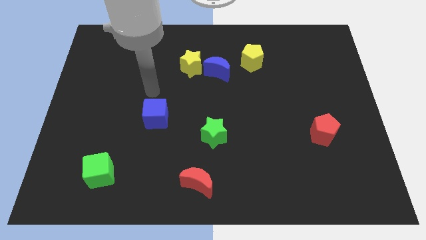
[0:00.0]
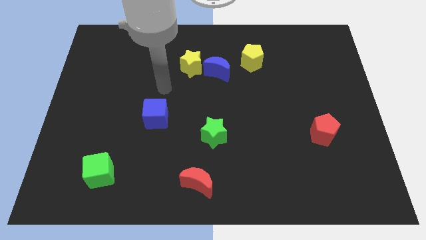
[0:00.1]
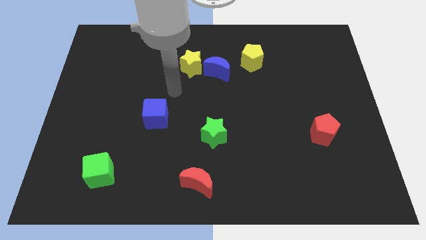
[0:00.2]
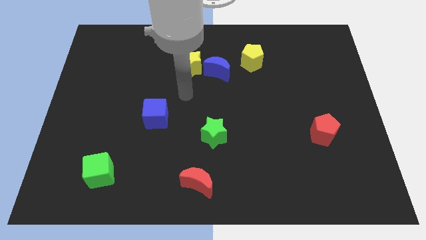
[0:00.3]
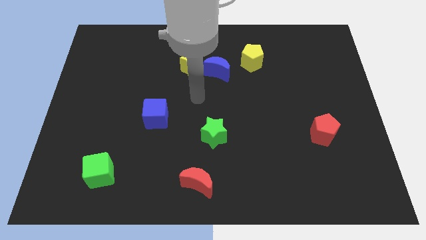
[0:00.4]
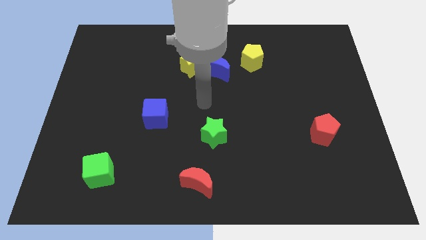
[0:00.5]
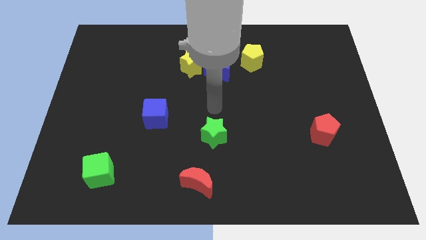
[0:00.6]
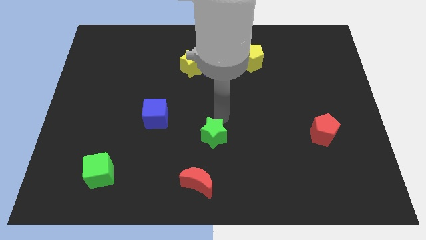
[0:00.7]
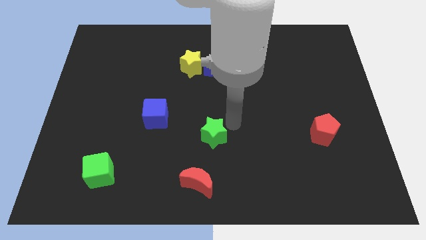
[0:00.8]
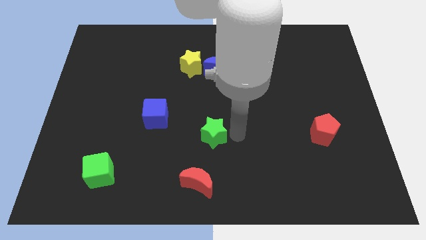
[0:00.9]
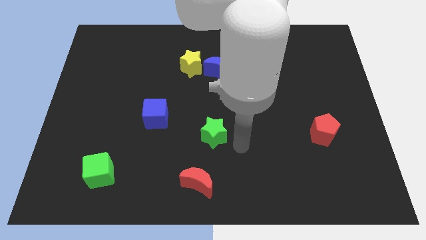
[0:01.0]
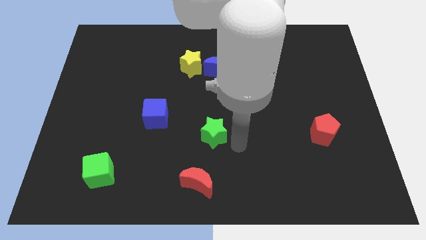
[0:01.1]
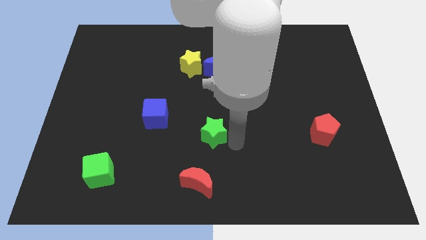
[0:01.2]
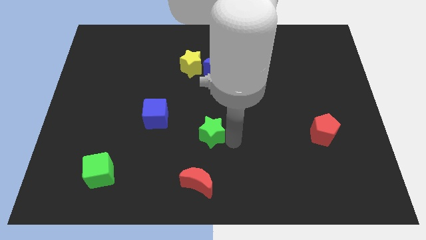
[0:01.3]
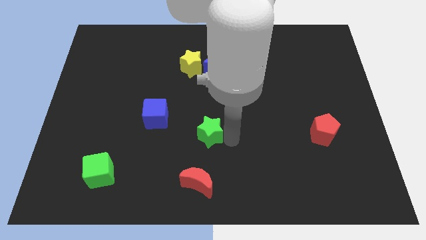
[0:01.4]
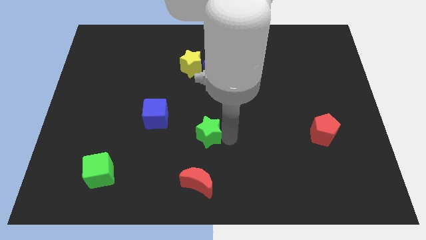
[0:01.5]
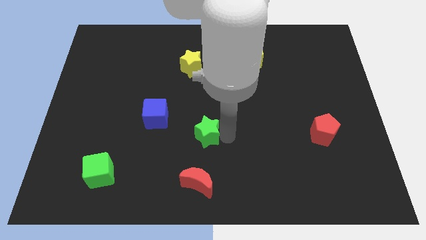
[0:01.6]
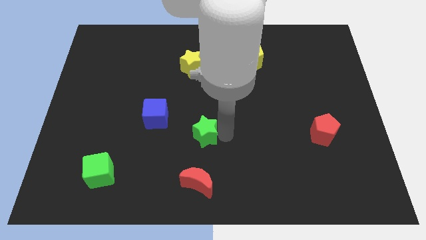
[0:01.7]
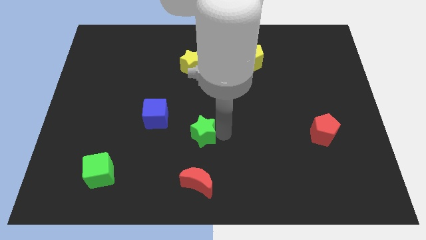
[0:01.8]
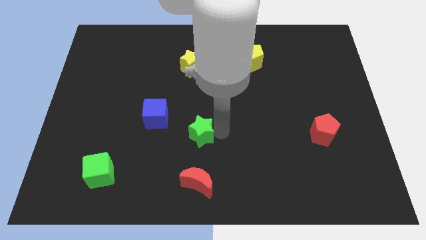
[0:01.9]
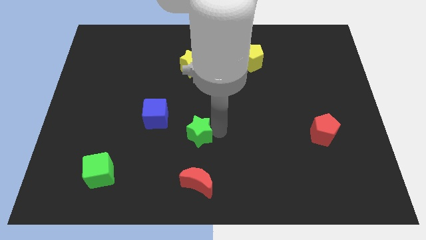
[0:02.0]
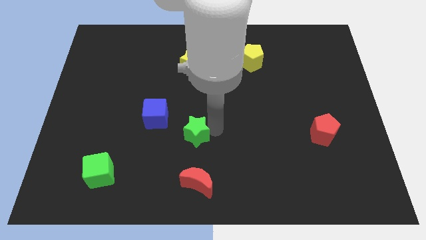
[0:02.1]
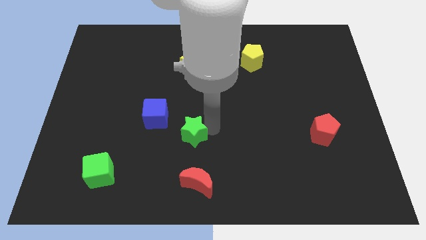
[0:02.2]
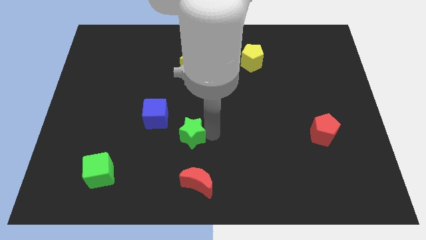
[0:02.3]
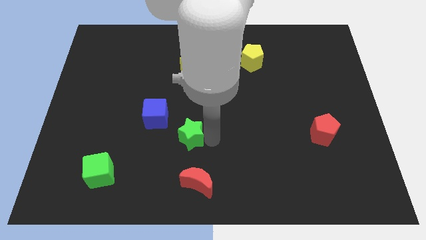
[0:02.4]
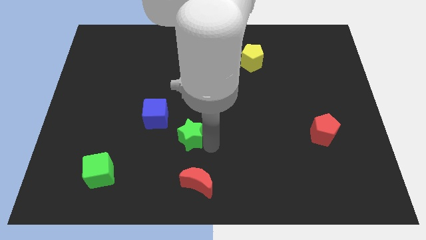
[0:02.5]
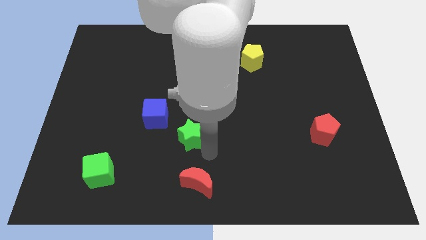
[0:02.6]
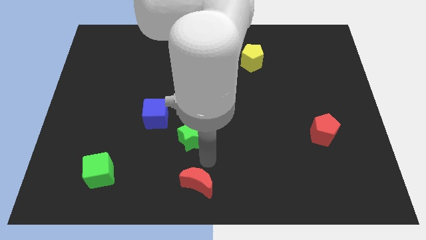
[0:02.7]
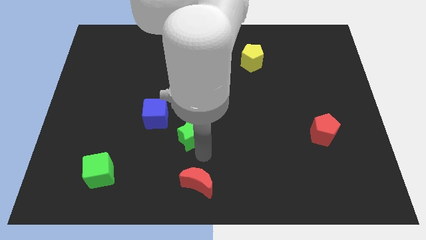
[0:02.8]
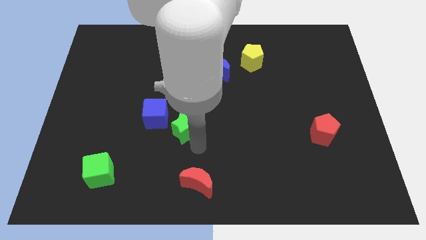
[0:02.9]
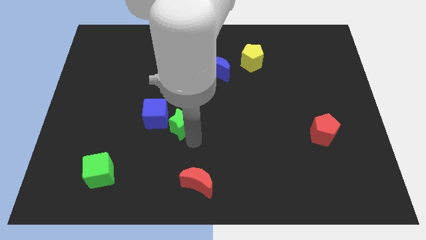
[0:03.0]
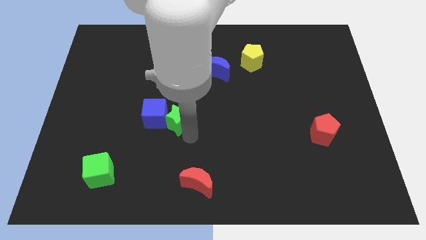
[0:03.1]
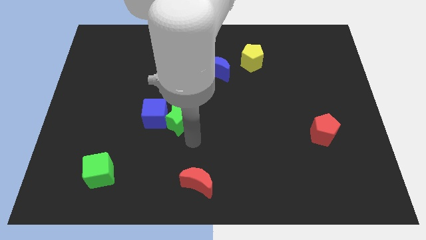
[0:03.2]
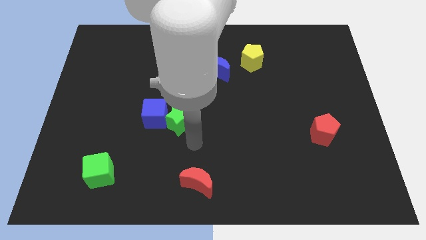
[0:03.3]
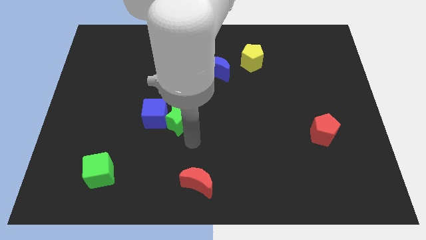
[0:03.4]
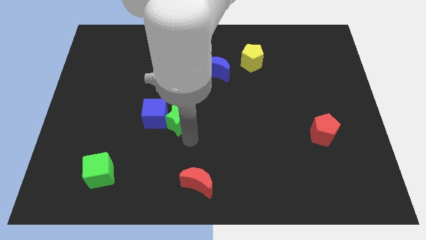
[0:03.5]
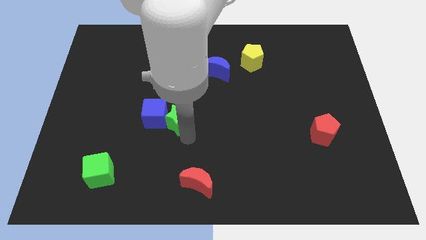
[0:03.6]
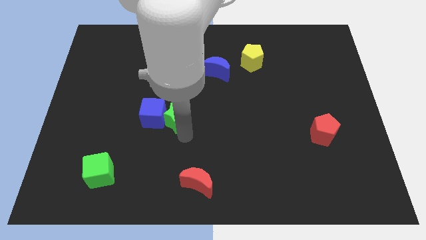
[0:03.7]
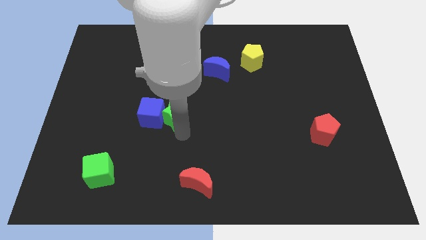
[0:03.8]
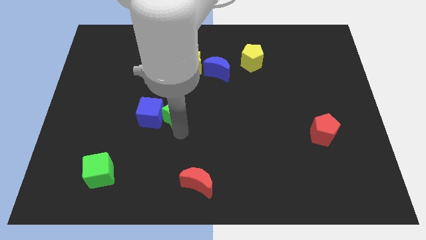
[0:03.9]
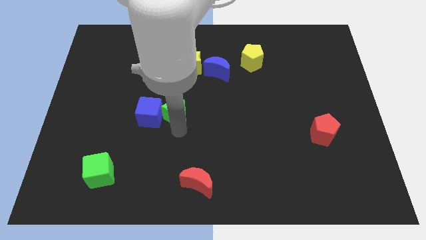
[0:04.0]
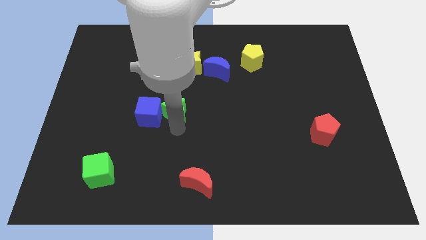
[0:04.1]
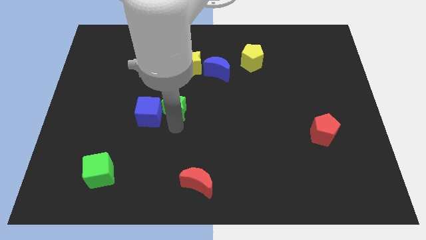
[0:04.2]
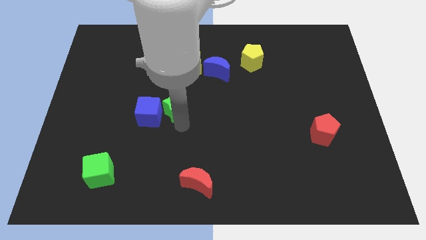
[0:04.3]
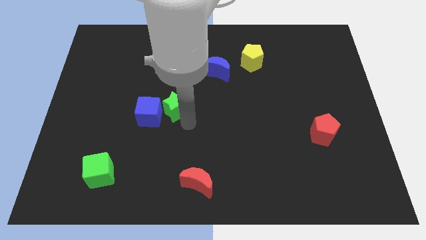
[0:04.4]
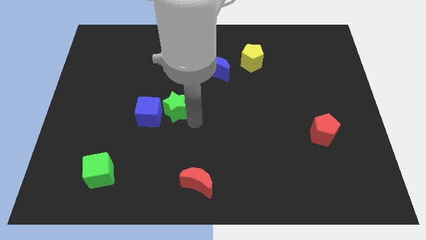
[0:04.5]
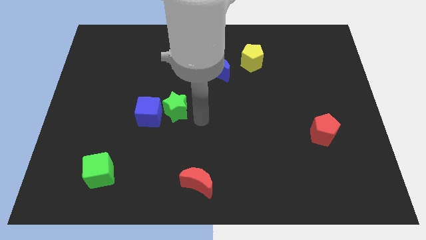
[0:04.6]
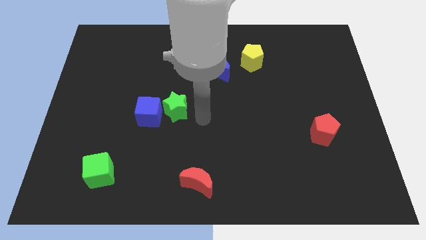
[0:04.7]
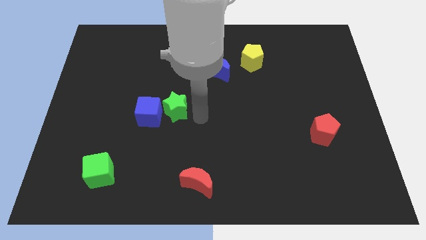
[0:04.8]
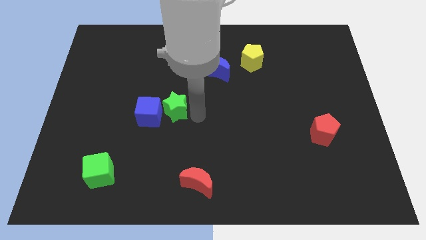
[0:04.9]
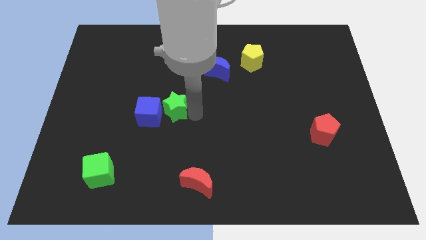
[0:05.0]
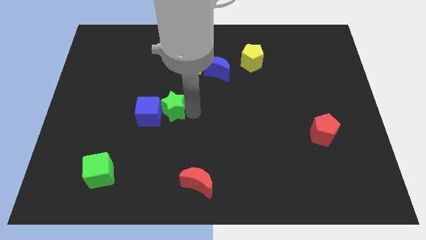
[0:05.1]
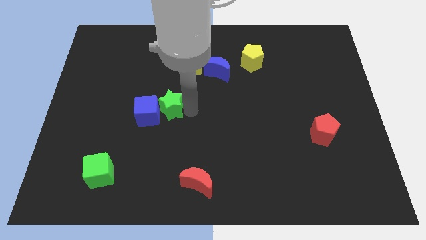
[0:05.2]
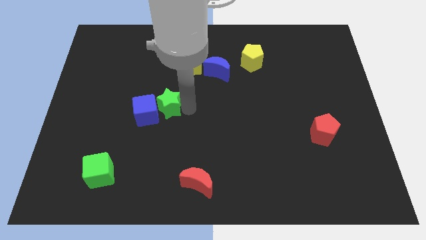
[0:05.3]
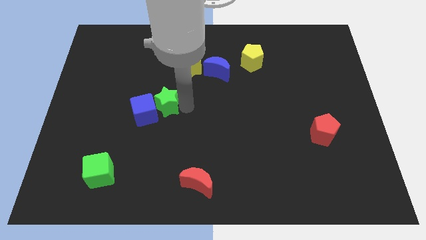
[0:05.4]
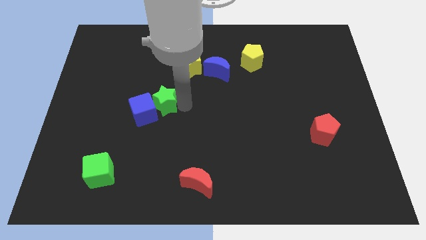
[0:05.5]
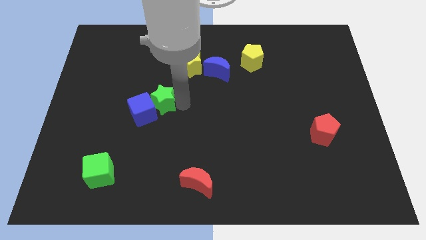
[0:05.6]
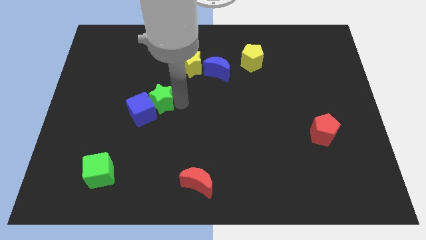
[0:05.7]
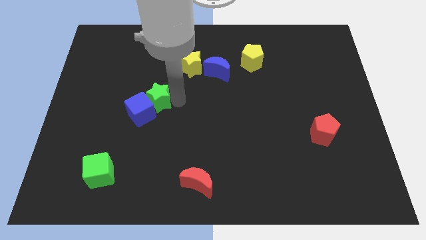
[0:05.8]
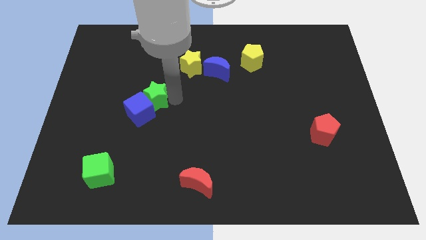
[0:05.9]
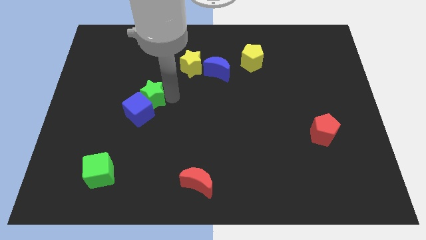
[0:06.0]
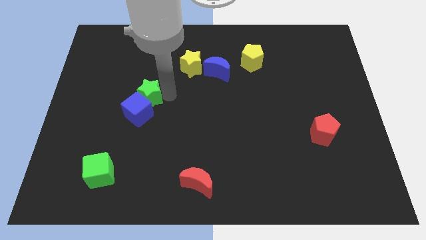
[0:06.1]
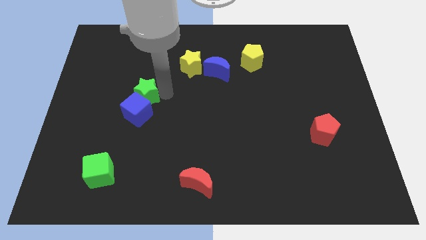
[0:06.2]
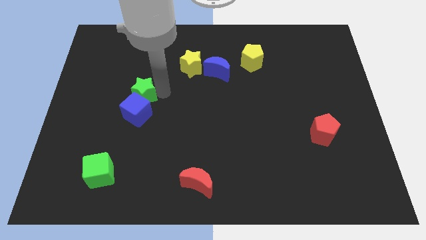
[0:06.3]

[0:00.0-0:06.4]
push the green star diagonally up and to the left of the blue cube
